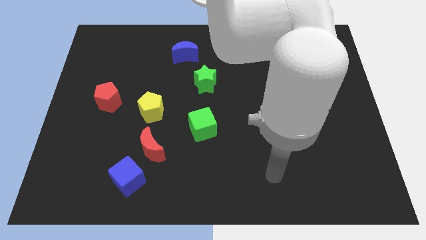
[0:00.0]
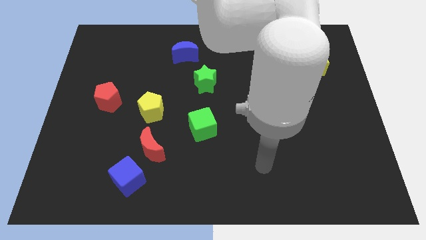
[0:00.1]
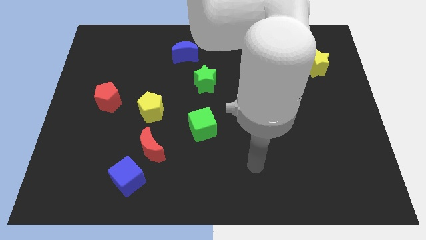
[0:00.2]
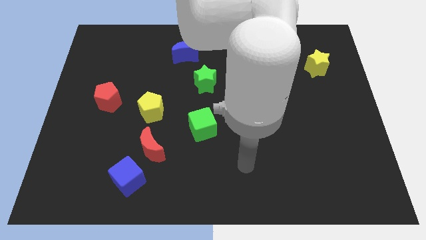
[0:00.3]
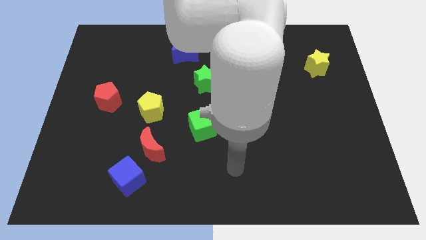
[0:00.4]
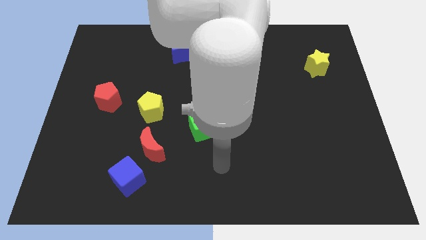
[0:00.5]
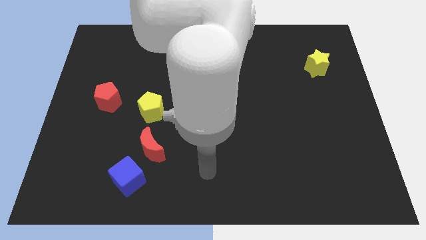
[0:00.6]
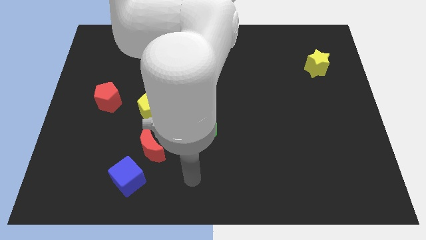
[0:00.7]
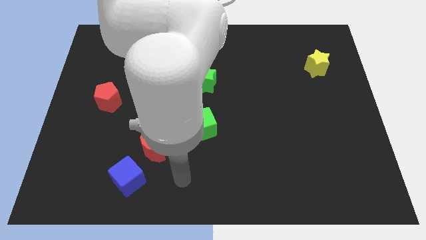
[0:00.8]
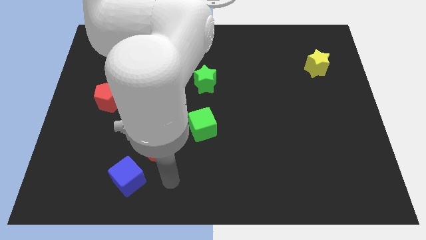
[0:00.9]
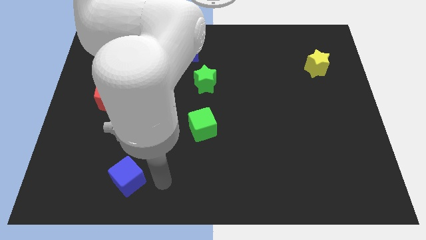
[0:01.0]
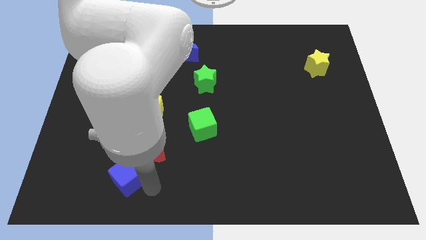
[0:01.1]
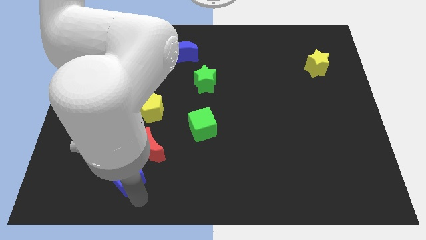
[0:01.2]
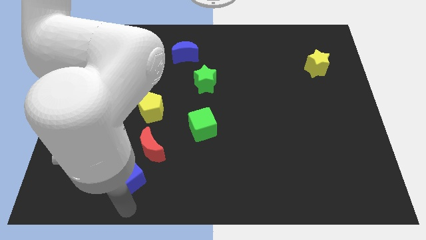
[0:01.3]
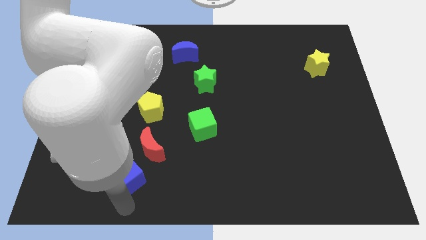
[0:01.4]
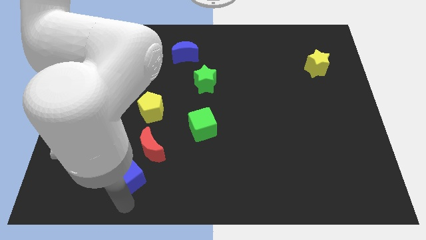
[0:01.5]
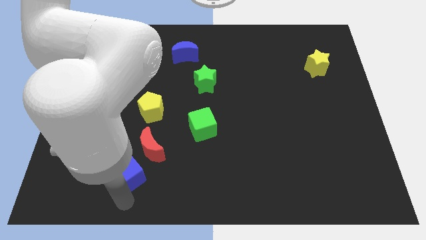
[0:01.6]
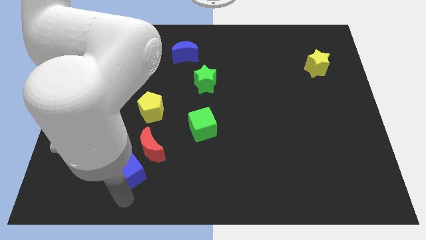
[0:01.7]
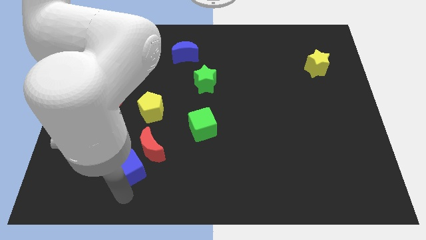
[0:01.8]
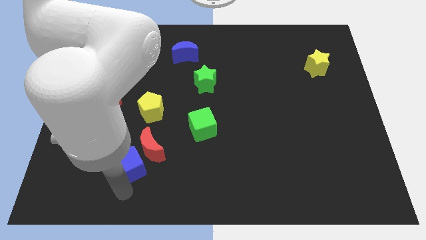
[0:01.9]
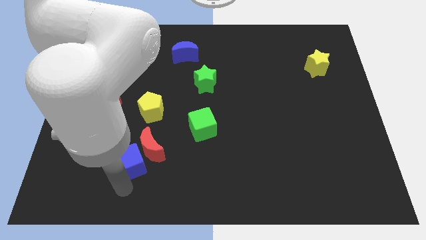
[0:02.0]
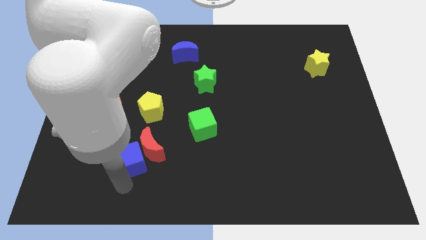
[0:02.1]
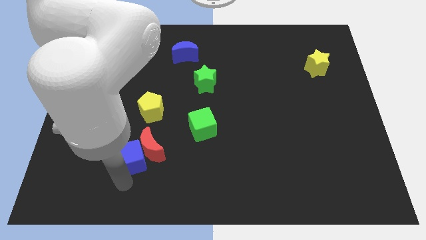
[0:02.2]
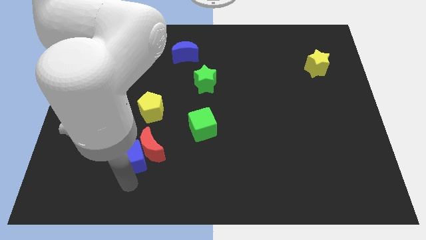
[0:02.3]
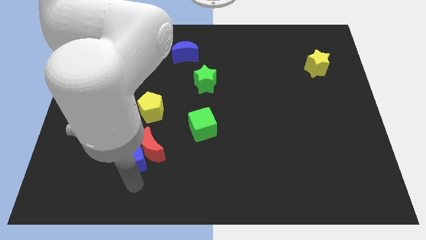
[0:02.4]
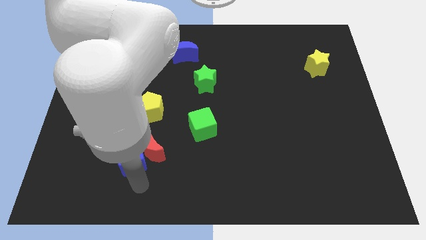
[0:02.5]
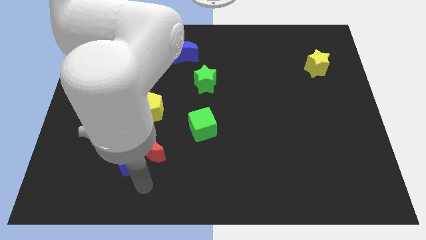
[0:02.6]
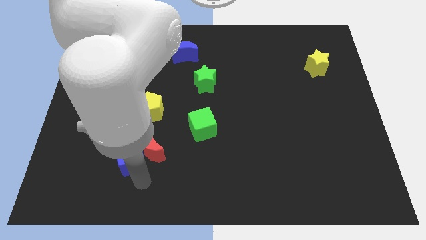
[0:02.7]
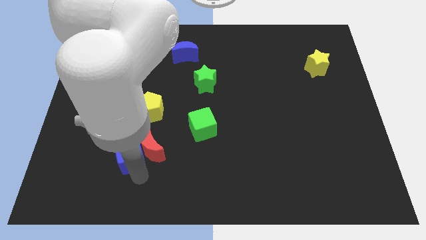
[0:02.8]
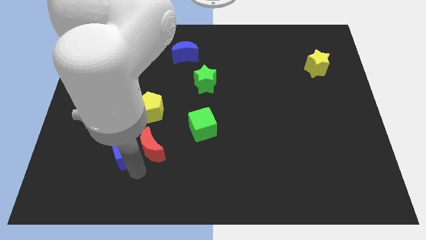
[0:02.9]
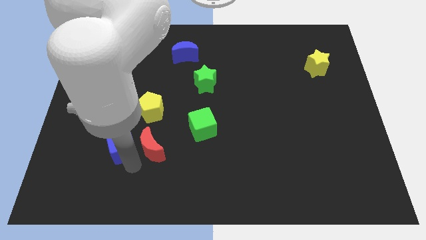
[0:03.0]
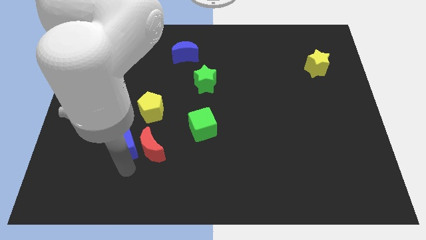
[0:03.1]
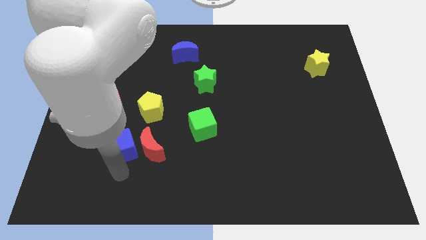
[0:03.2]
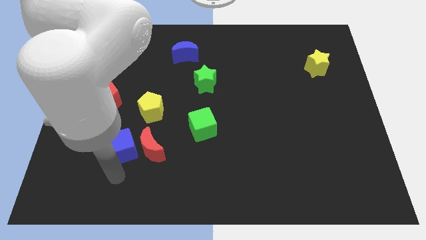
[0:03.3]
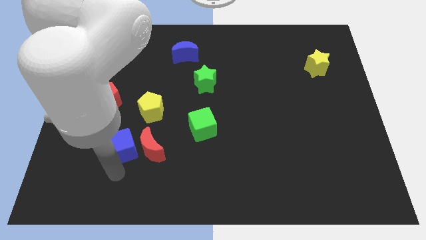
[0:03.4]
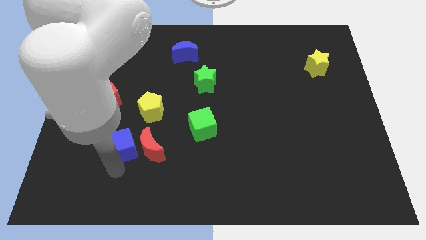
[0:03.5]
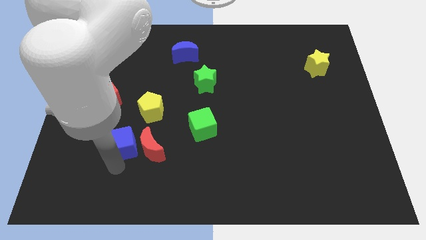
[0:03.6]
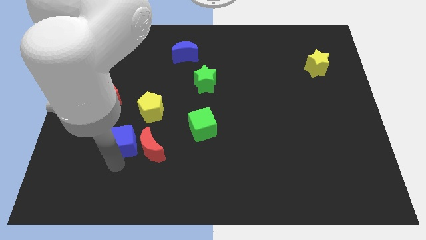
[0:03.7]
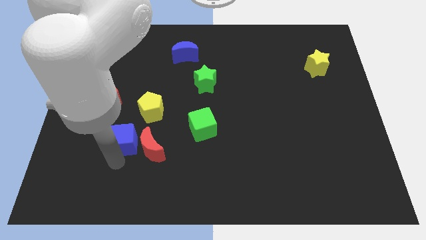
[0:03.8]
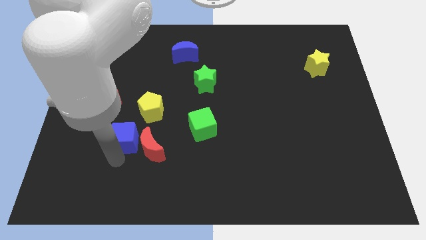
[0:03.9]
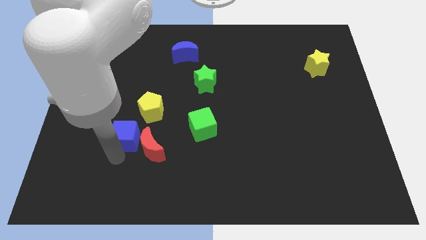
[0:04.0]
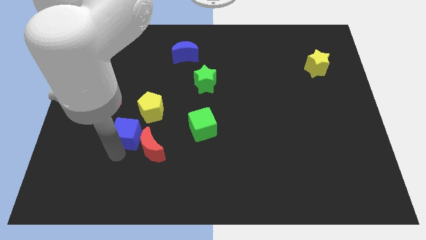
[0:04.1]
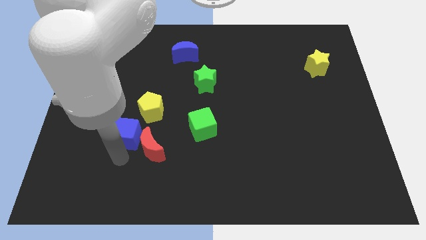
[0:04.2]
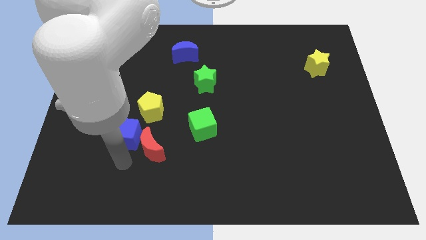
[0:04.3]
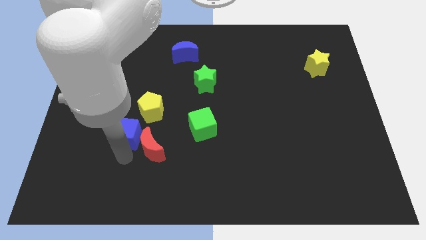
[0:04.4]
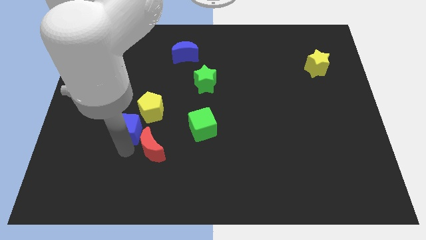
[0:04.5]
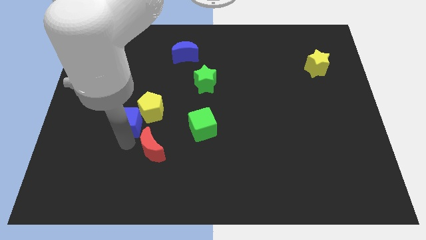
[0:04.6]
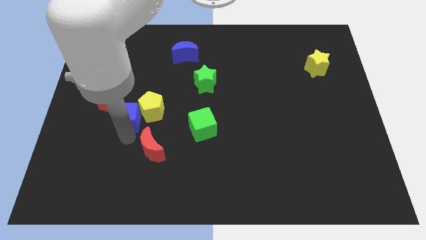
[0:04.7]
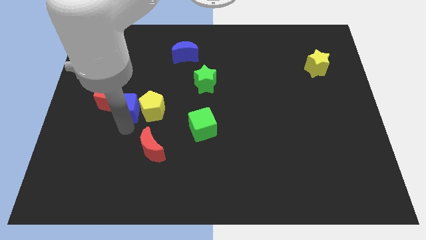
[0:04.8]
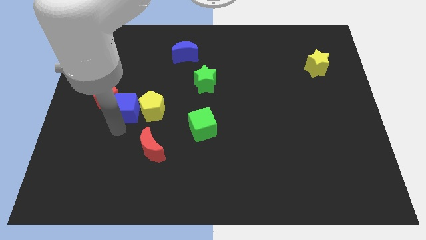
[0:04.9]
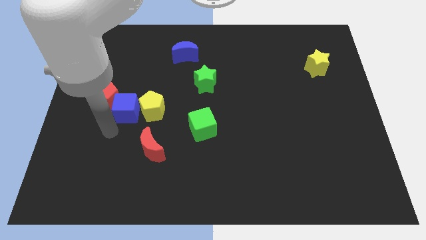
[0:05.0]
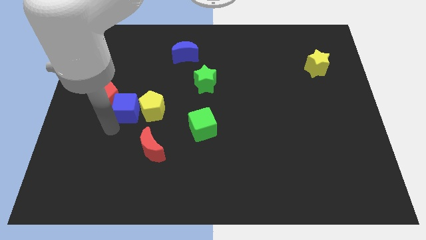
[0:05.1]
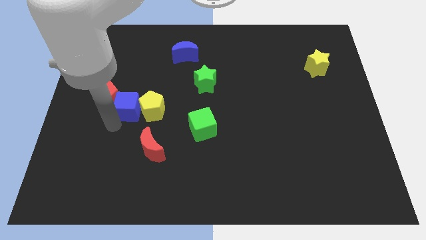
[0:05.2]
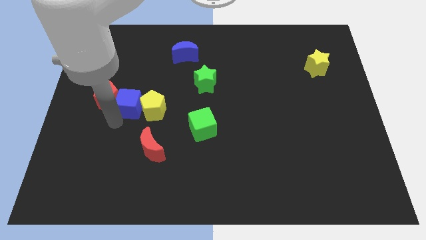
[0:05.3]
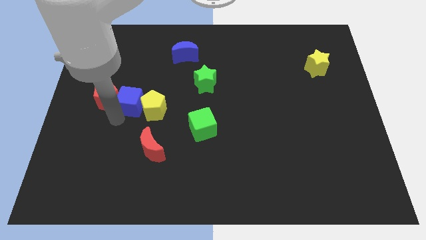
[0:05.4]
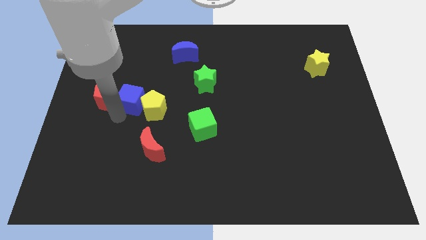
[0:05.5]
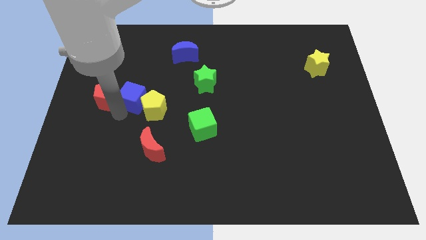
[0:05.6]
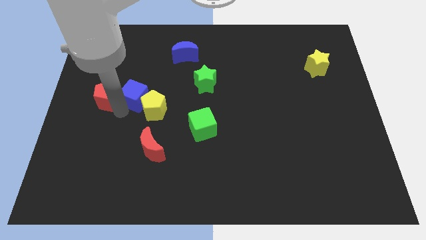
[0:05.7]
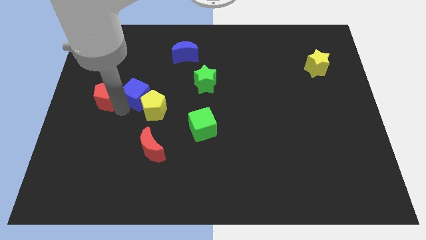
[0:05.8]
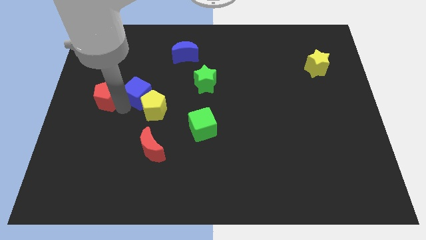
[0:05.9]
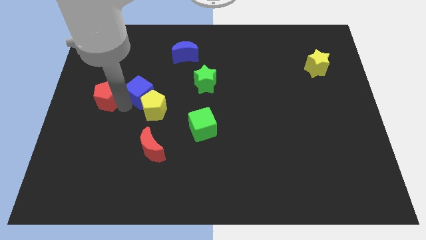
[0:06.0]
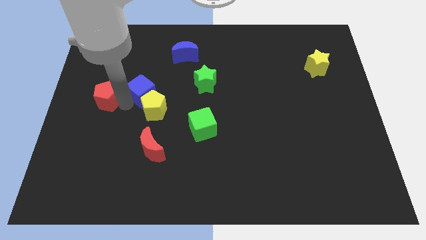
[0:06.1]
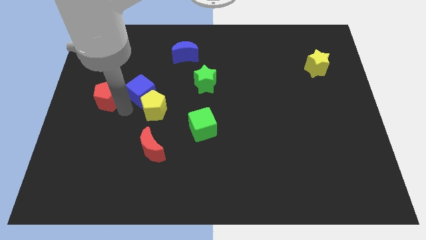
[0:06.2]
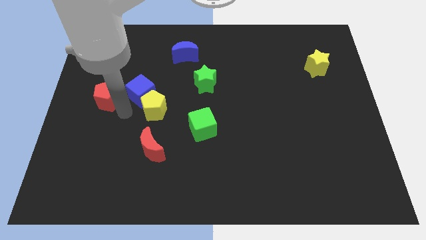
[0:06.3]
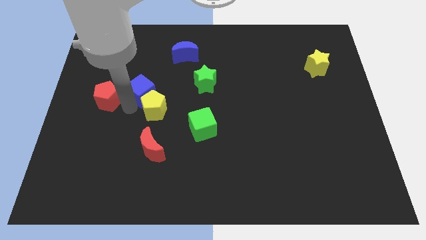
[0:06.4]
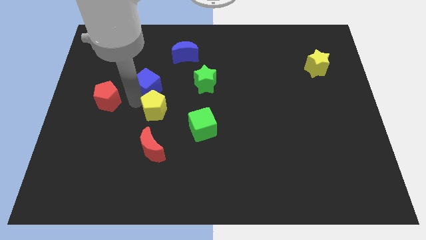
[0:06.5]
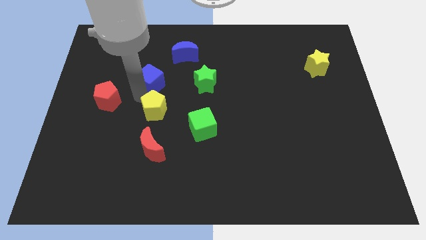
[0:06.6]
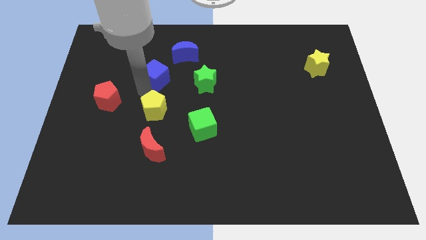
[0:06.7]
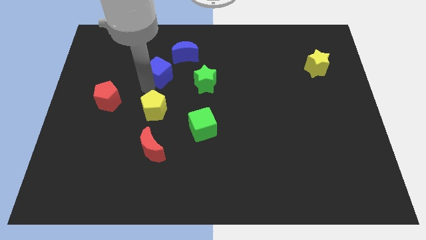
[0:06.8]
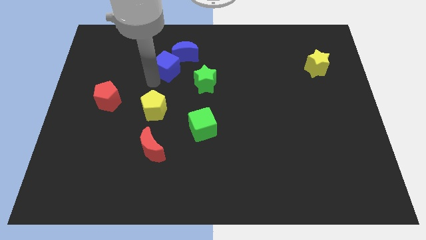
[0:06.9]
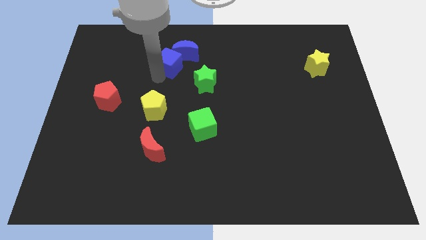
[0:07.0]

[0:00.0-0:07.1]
put the blue cube close to the blue moon
